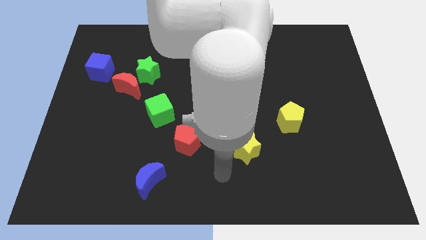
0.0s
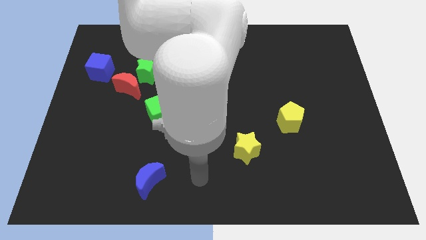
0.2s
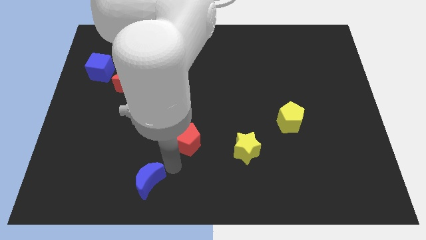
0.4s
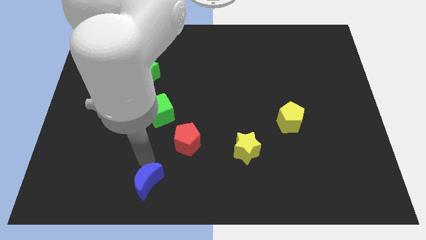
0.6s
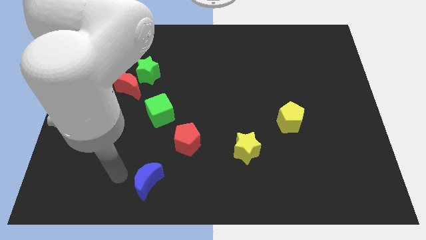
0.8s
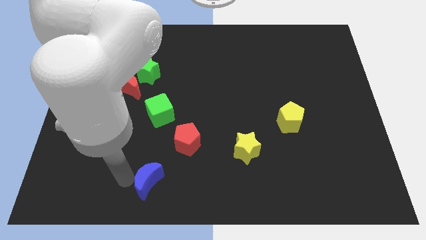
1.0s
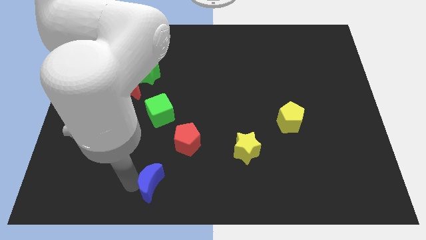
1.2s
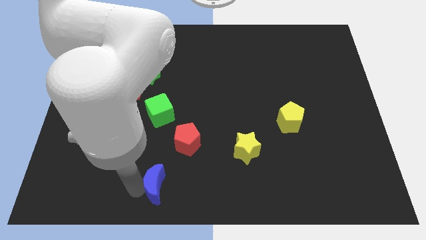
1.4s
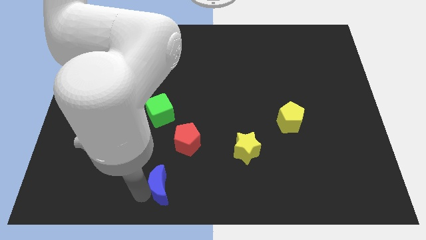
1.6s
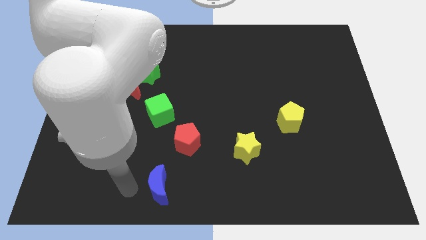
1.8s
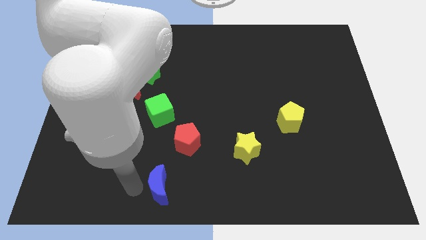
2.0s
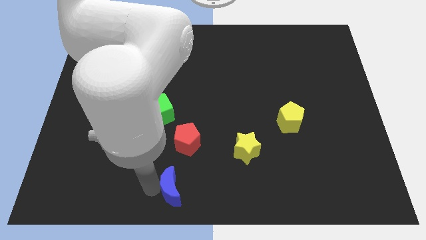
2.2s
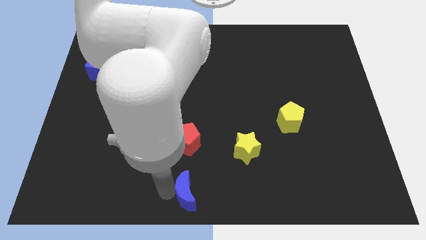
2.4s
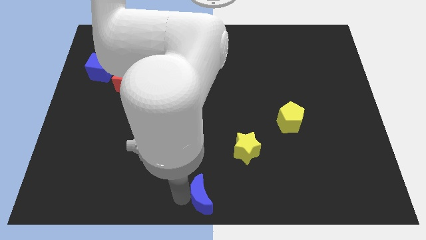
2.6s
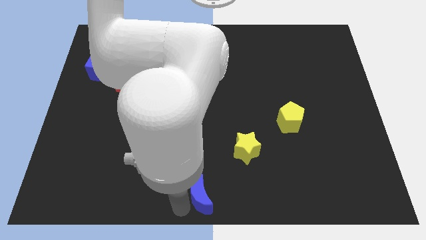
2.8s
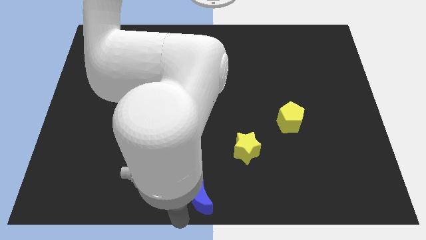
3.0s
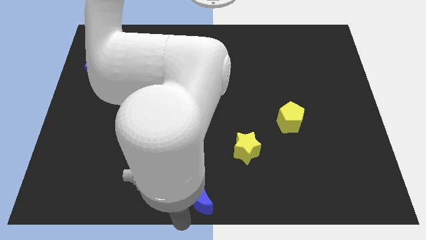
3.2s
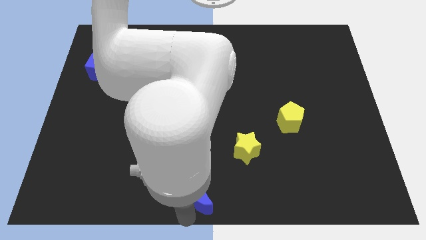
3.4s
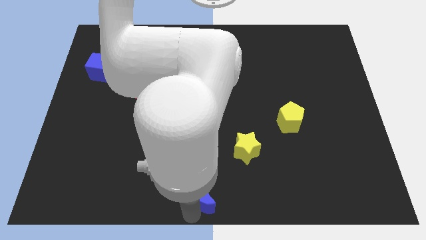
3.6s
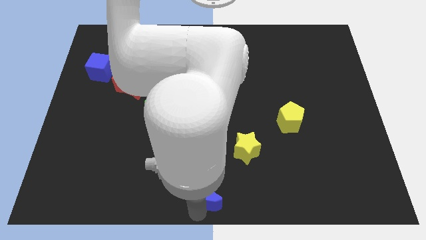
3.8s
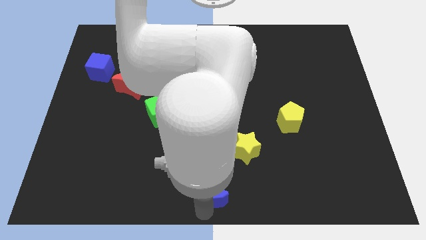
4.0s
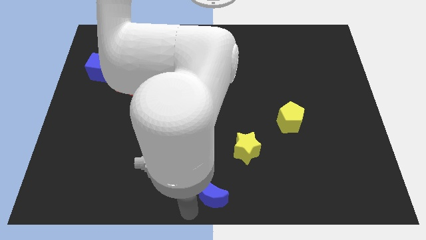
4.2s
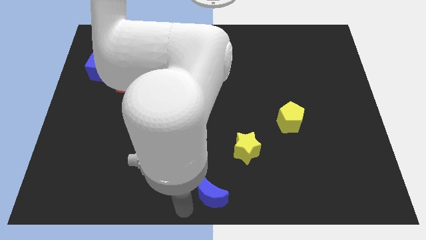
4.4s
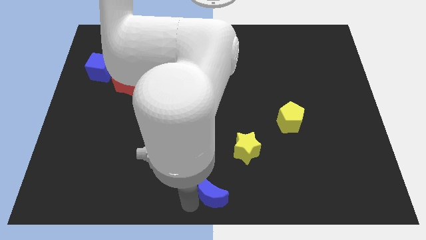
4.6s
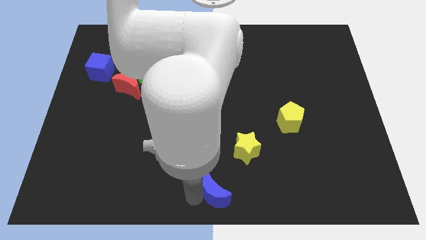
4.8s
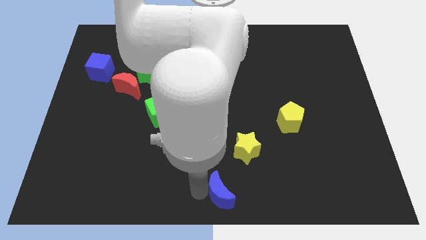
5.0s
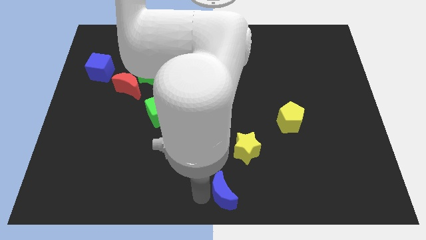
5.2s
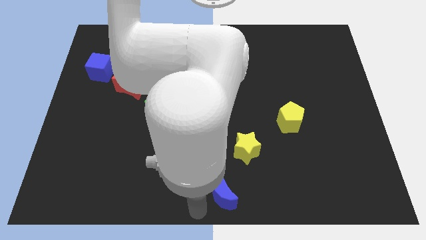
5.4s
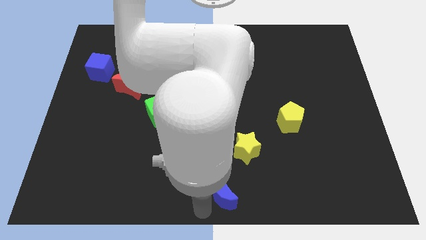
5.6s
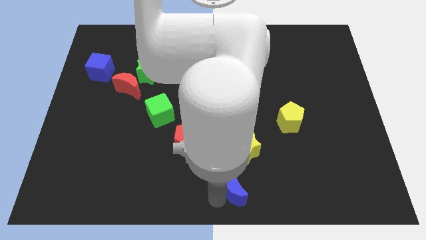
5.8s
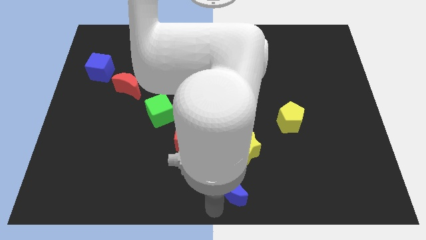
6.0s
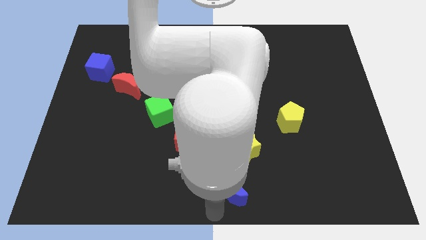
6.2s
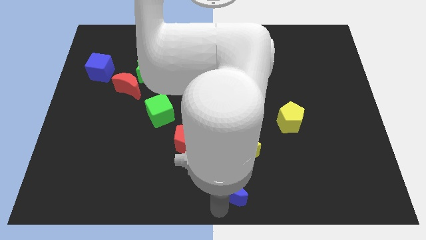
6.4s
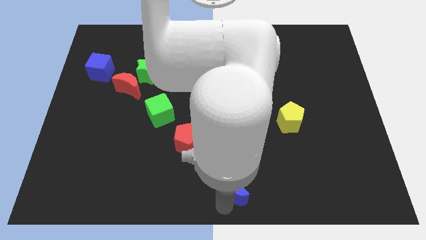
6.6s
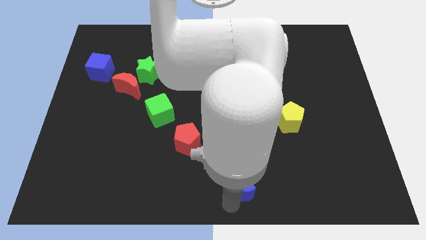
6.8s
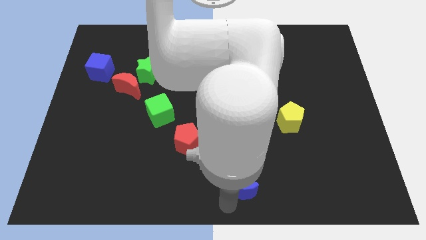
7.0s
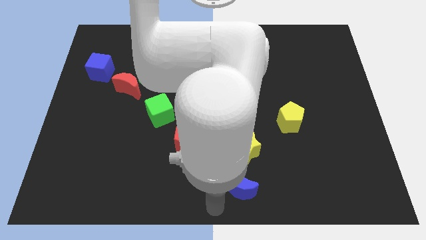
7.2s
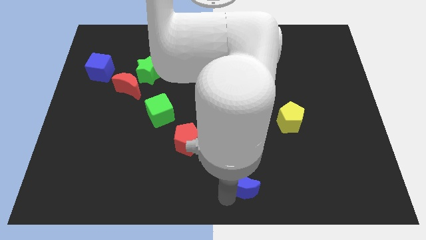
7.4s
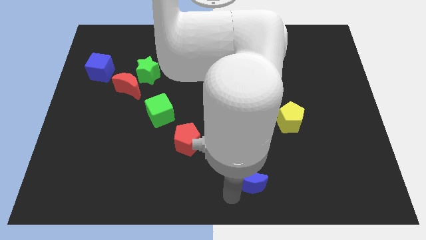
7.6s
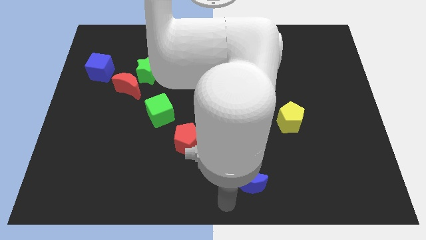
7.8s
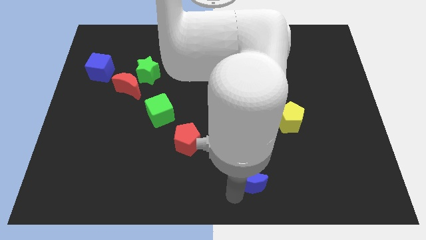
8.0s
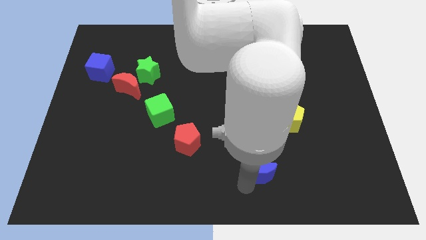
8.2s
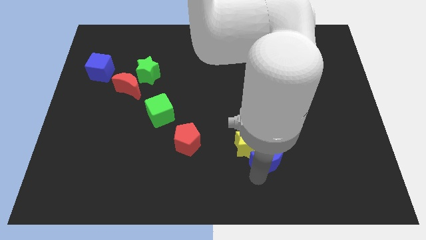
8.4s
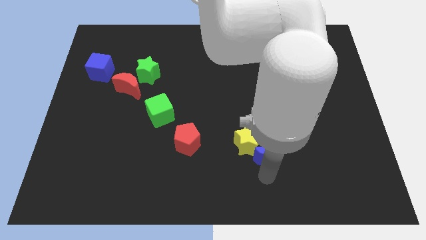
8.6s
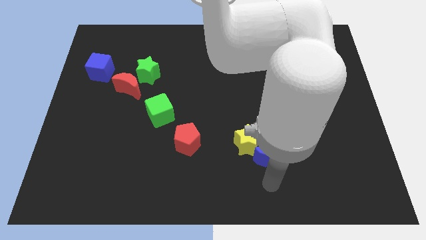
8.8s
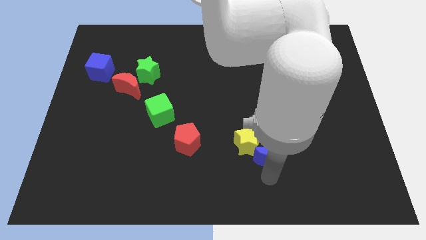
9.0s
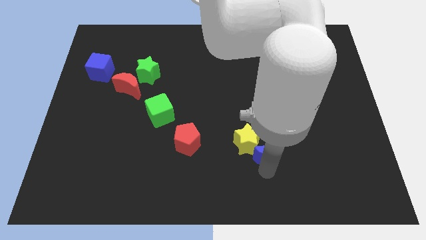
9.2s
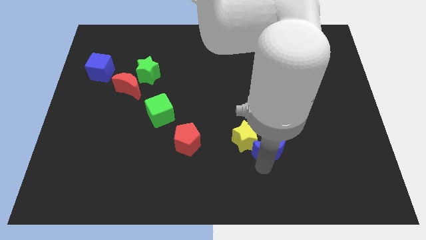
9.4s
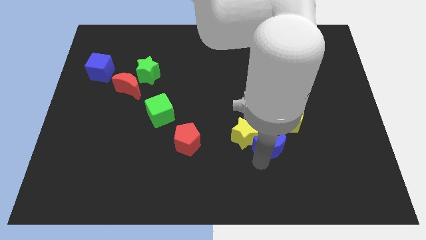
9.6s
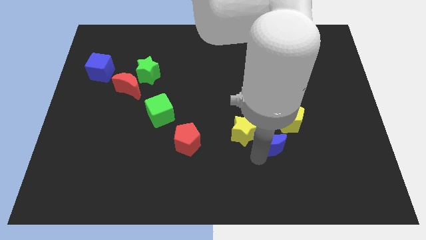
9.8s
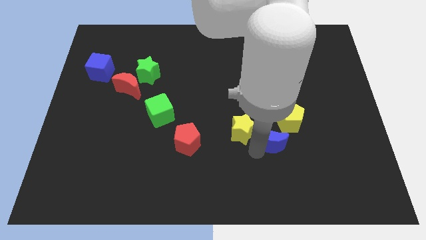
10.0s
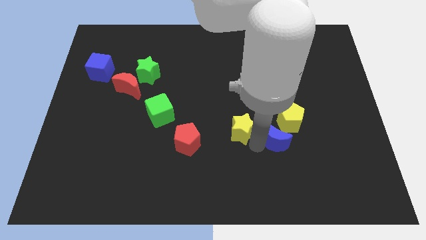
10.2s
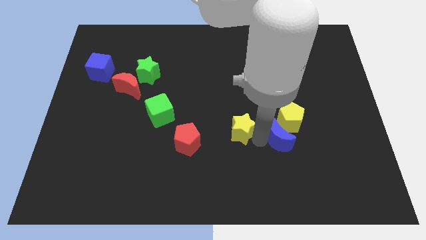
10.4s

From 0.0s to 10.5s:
slide the blue moon towards the yellow pentagon

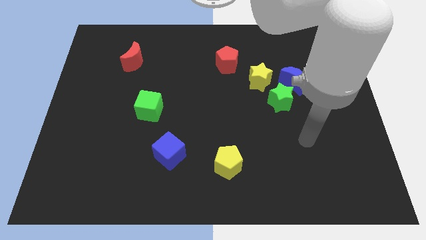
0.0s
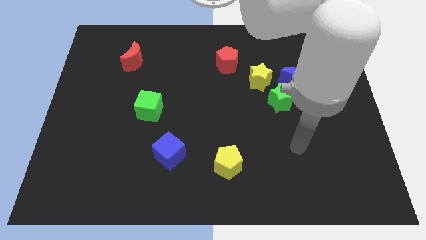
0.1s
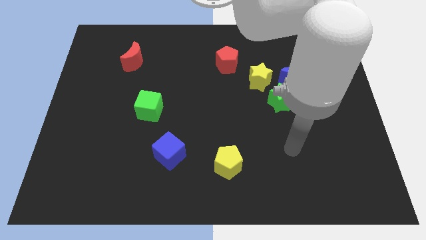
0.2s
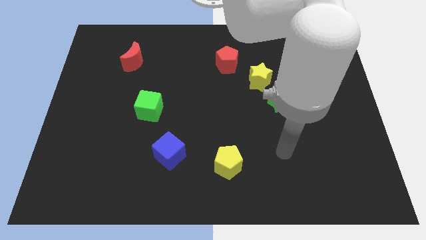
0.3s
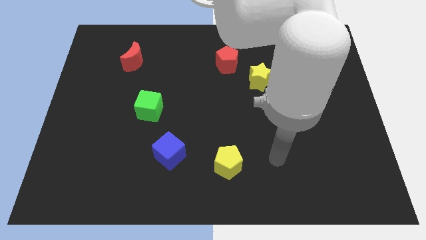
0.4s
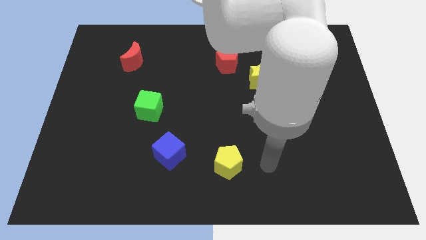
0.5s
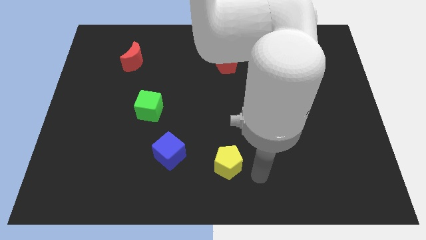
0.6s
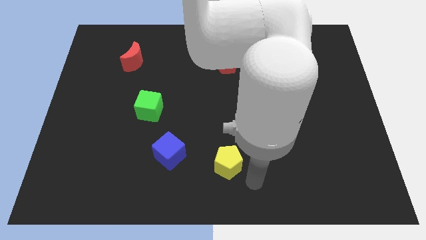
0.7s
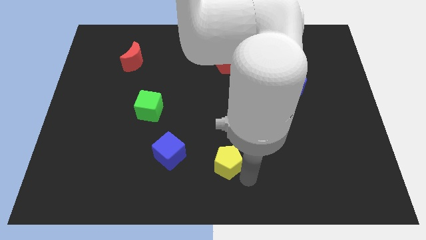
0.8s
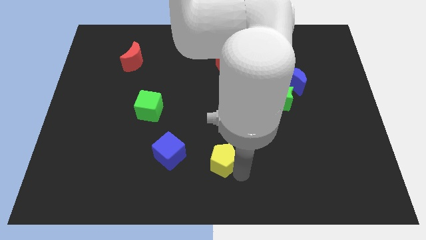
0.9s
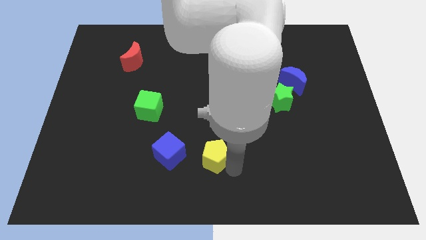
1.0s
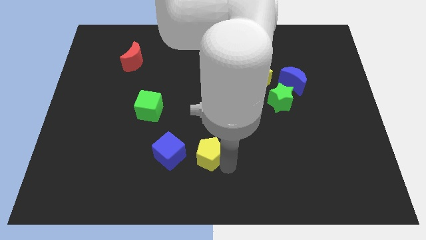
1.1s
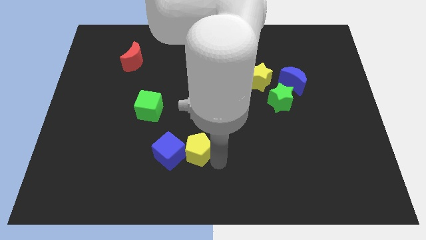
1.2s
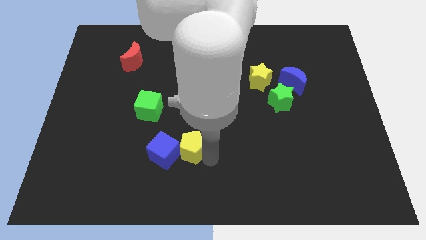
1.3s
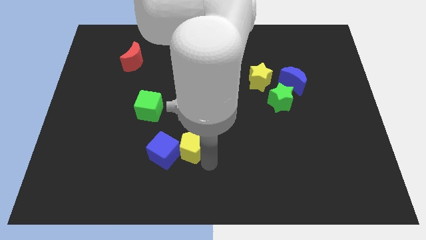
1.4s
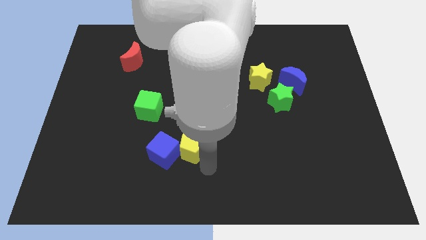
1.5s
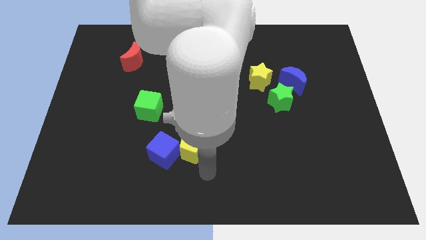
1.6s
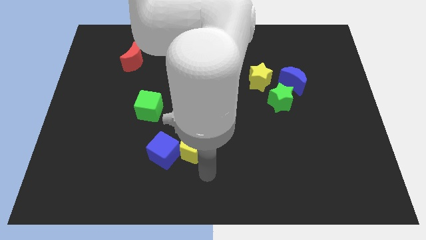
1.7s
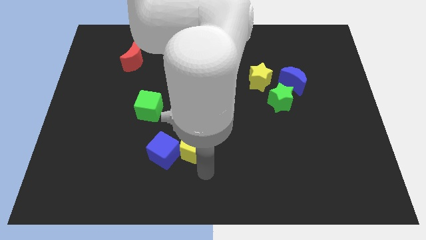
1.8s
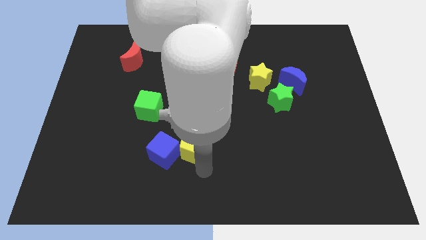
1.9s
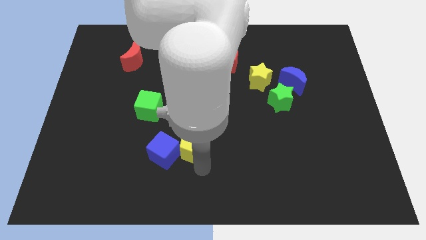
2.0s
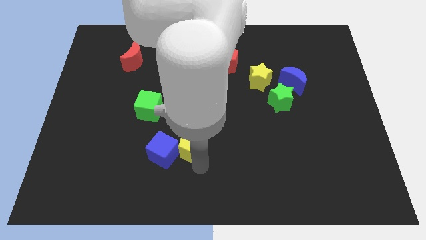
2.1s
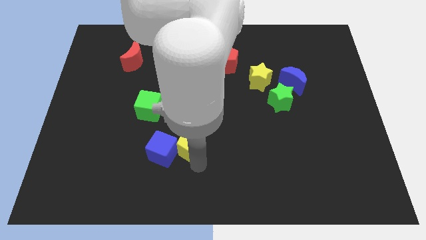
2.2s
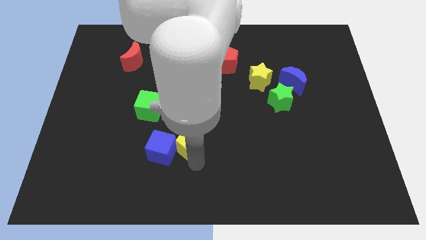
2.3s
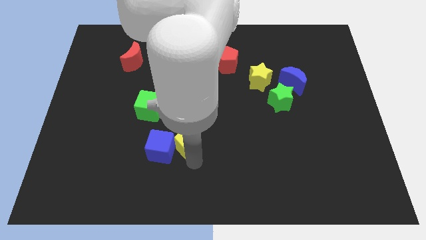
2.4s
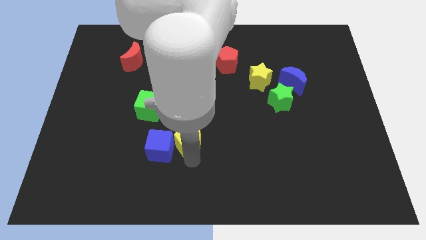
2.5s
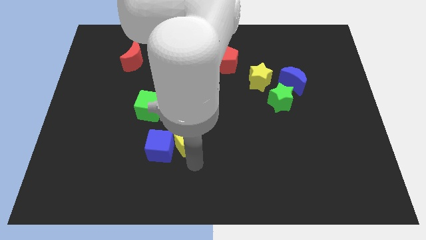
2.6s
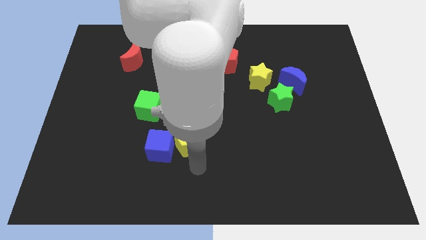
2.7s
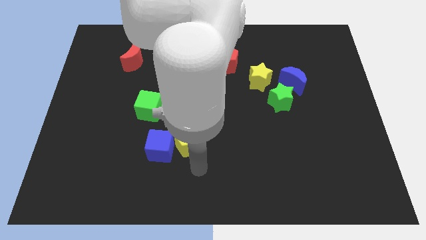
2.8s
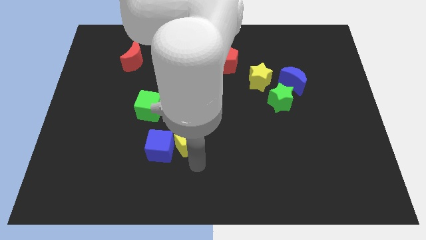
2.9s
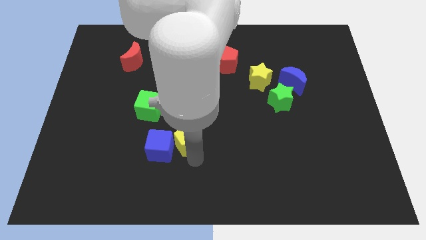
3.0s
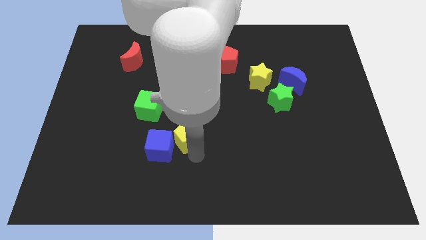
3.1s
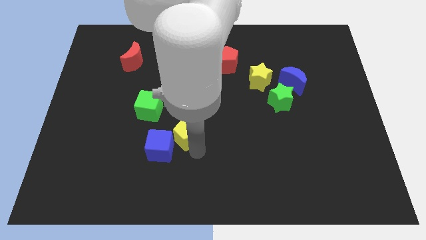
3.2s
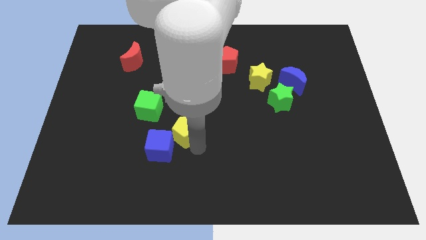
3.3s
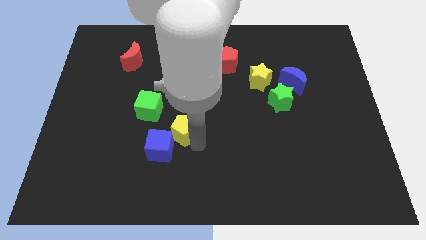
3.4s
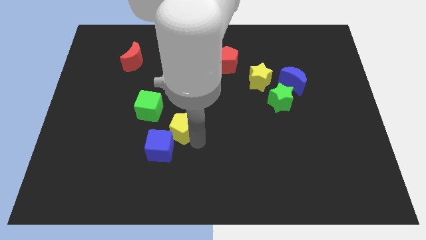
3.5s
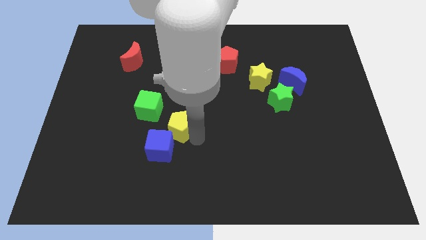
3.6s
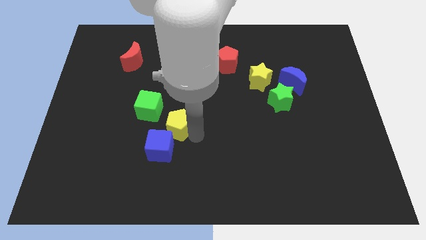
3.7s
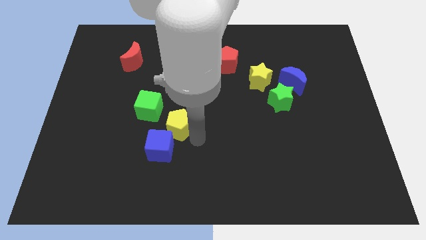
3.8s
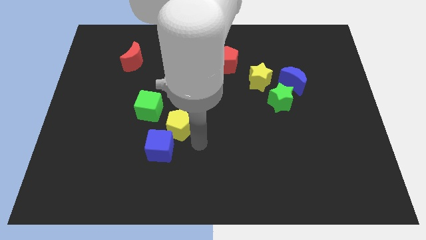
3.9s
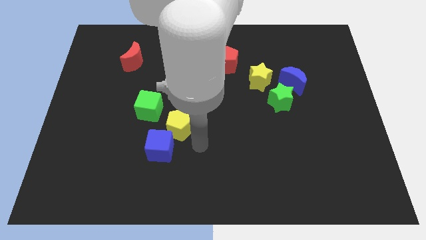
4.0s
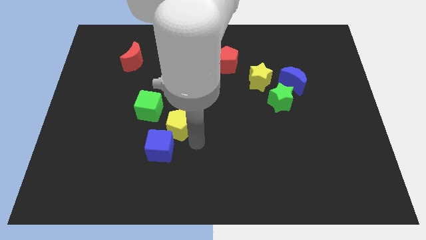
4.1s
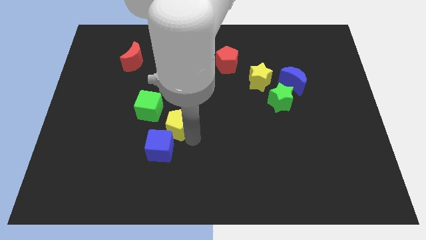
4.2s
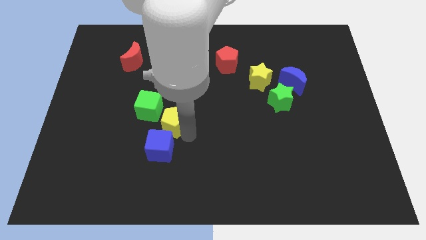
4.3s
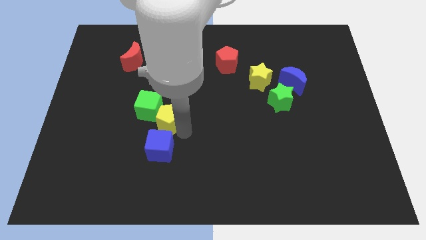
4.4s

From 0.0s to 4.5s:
put the yellow pentagon to the green cube
